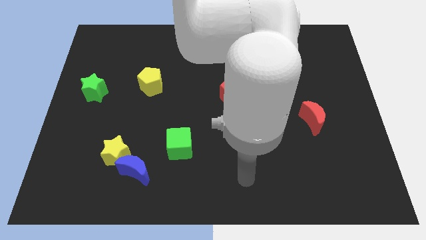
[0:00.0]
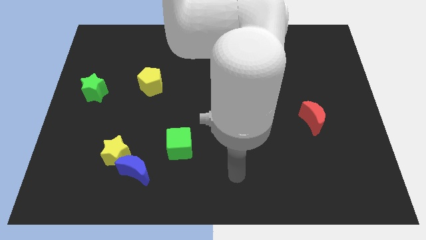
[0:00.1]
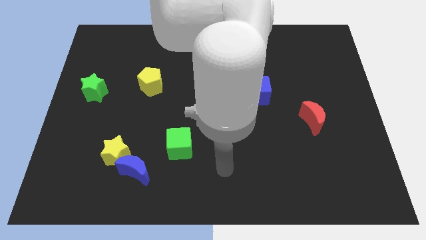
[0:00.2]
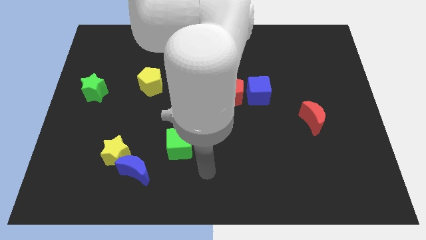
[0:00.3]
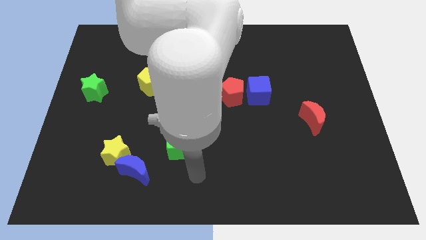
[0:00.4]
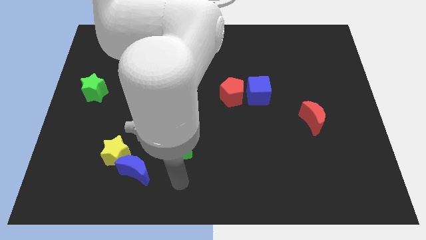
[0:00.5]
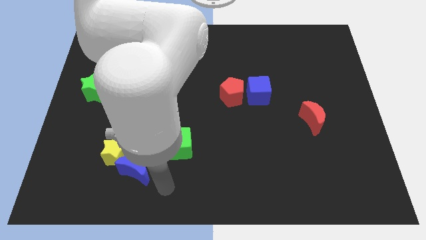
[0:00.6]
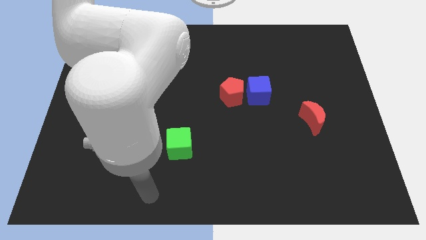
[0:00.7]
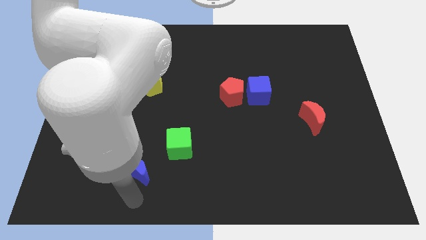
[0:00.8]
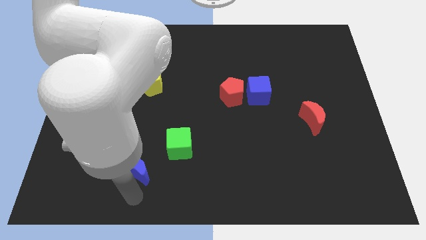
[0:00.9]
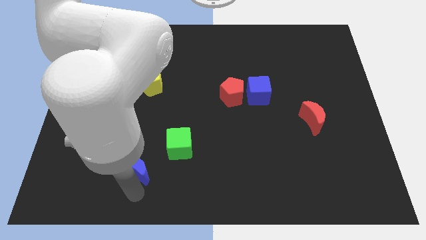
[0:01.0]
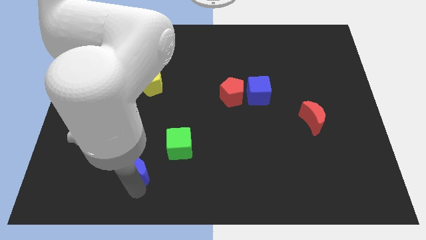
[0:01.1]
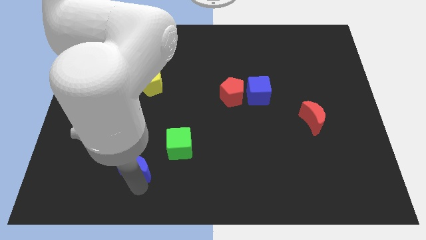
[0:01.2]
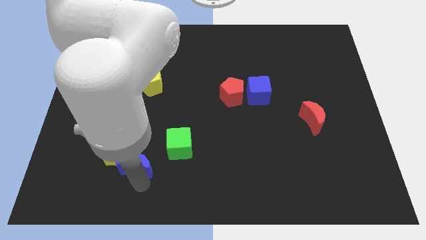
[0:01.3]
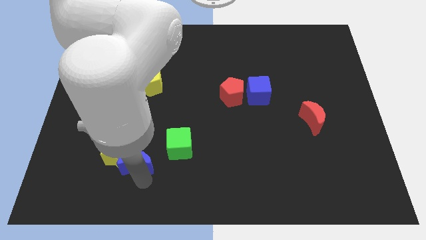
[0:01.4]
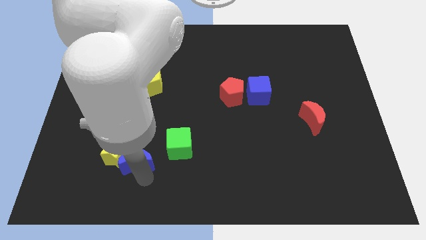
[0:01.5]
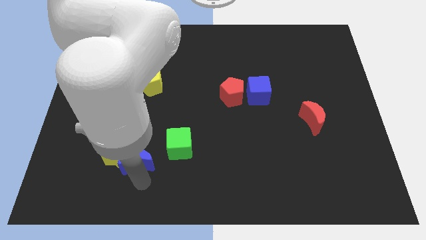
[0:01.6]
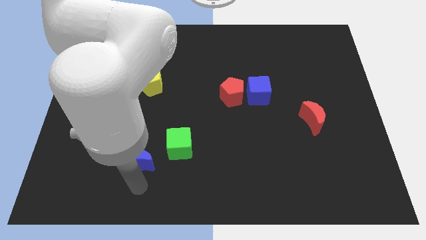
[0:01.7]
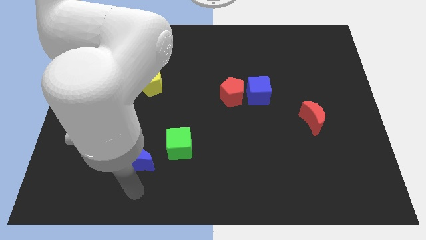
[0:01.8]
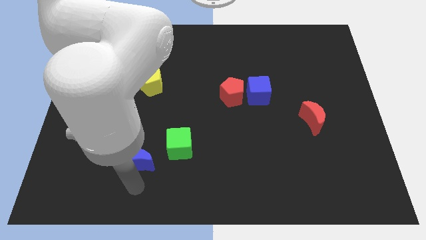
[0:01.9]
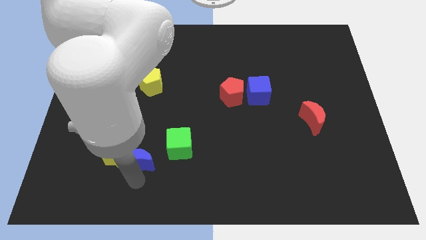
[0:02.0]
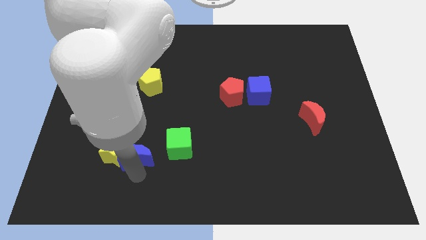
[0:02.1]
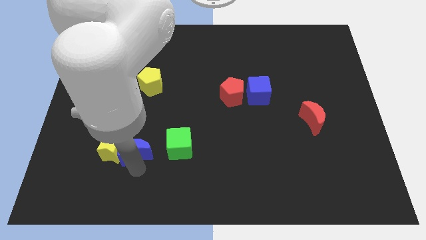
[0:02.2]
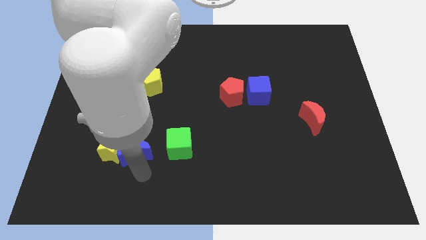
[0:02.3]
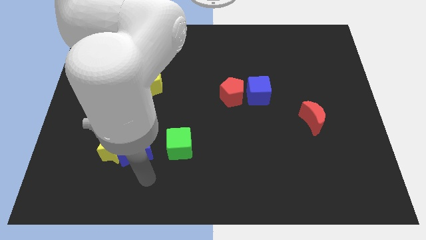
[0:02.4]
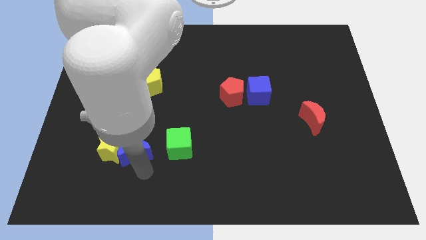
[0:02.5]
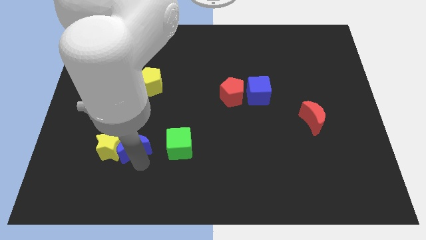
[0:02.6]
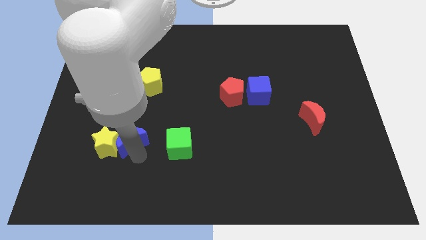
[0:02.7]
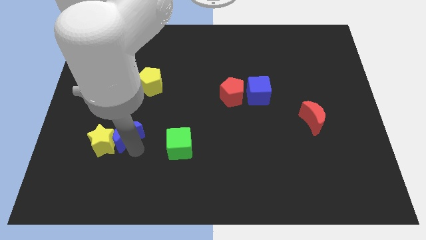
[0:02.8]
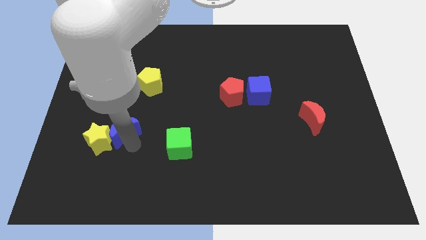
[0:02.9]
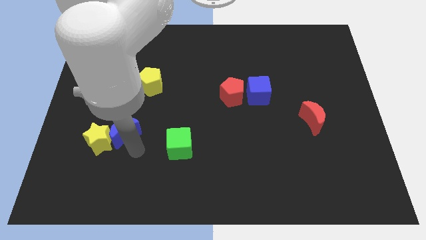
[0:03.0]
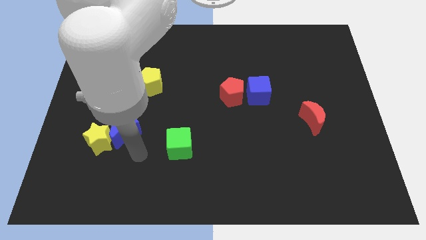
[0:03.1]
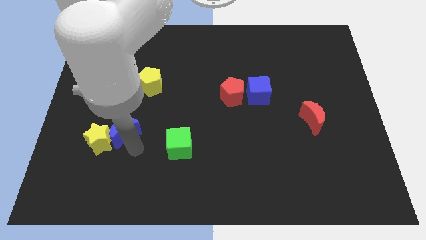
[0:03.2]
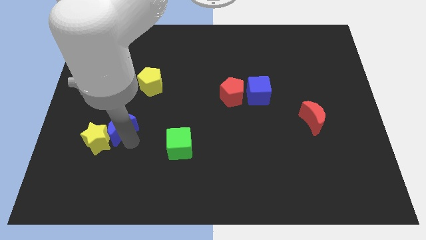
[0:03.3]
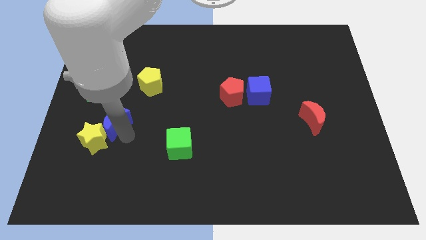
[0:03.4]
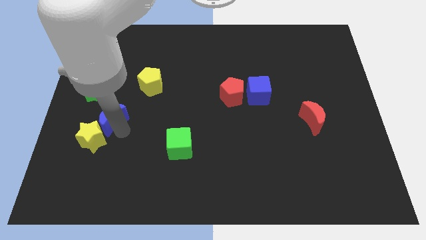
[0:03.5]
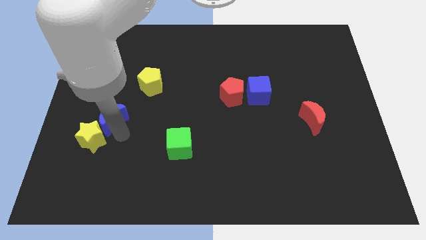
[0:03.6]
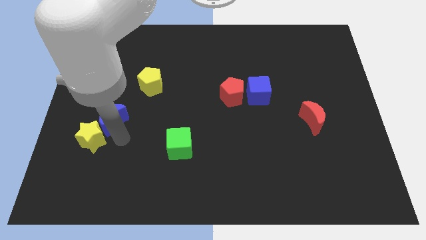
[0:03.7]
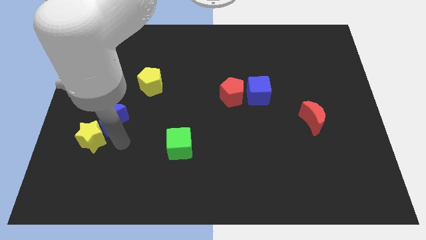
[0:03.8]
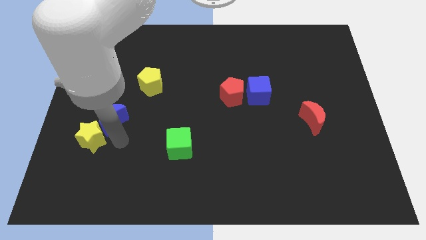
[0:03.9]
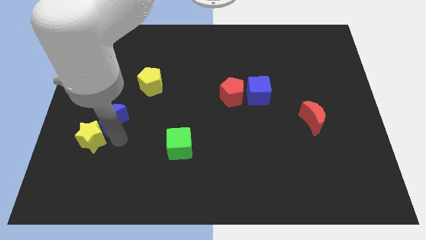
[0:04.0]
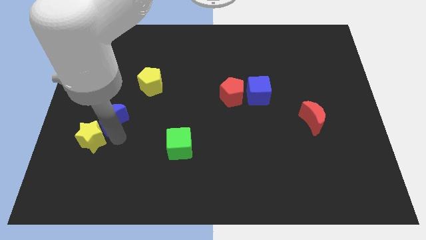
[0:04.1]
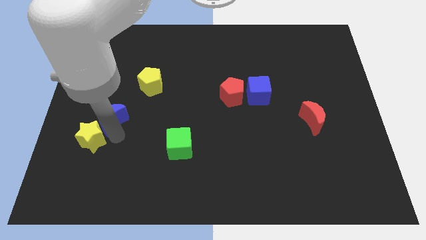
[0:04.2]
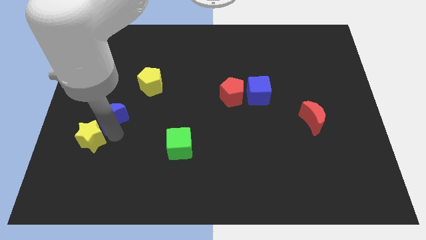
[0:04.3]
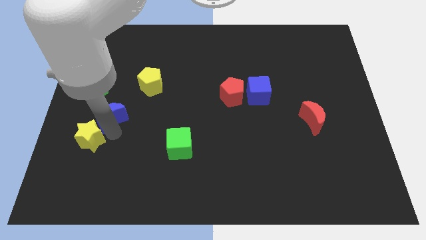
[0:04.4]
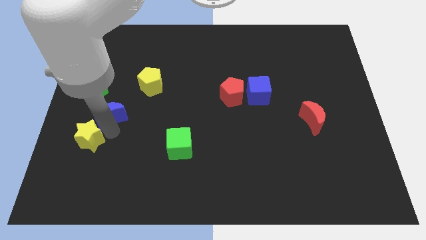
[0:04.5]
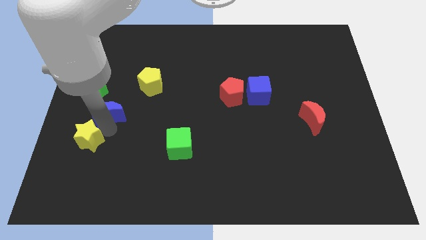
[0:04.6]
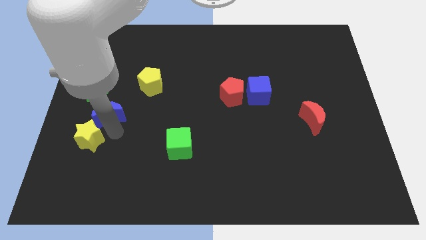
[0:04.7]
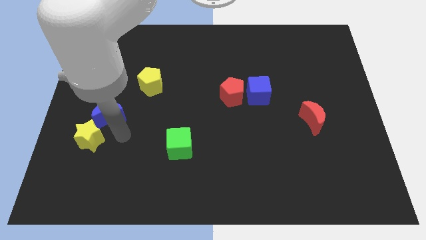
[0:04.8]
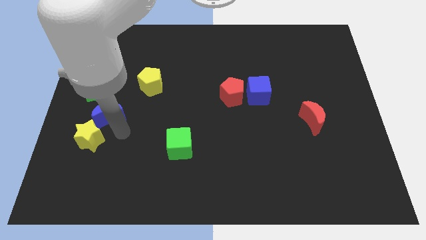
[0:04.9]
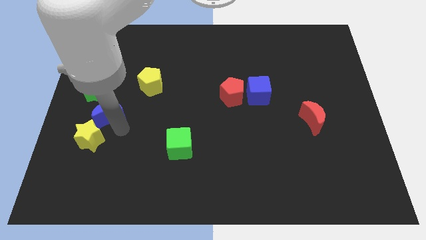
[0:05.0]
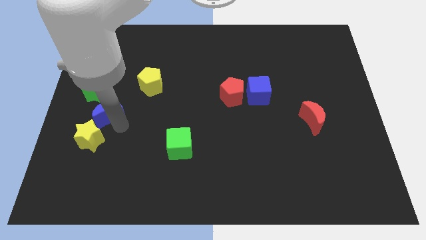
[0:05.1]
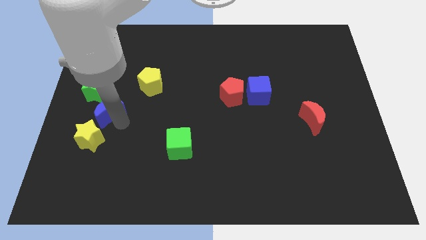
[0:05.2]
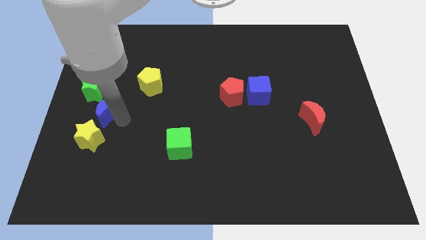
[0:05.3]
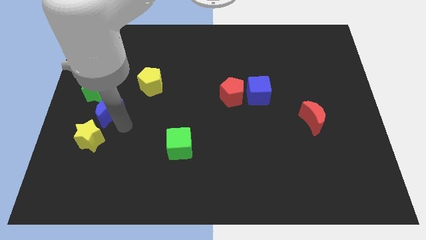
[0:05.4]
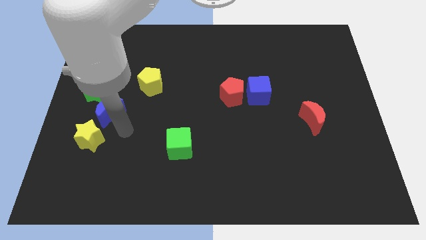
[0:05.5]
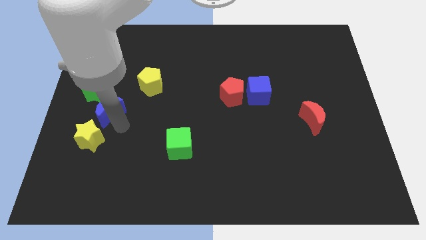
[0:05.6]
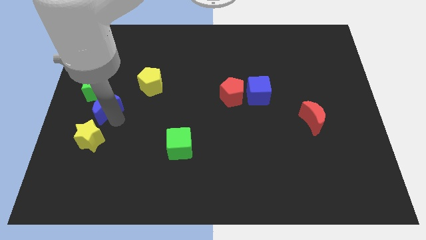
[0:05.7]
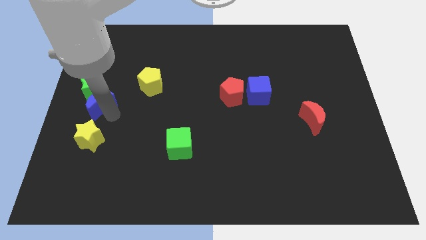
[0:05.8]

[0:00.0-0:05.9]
slide the blue moon close to the green star

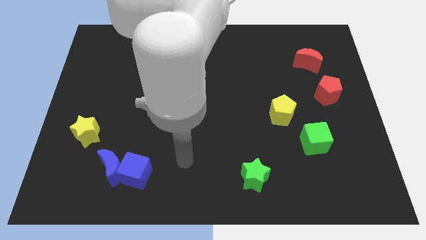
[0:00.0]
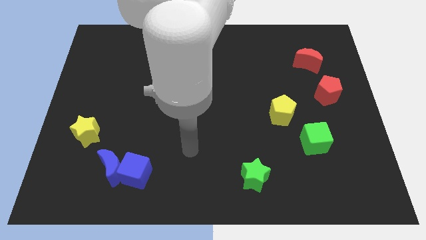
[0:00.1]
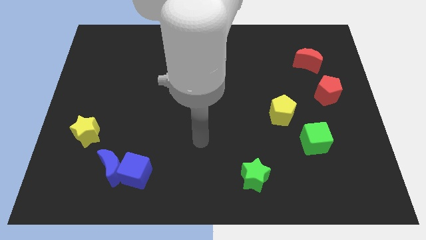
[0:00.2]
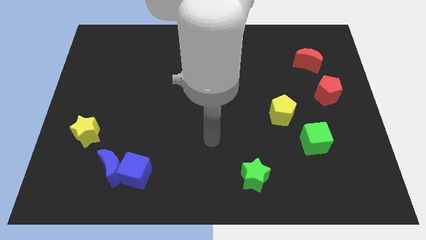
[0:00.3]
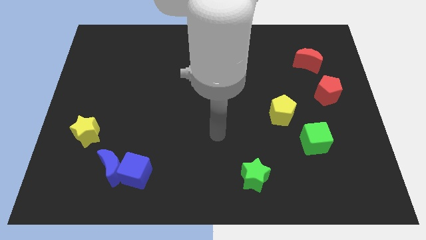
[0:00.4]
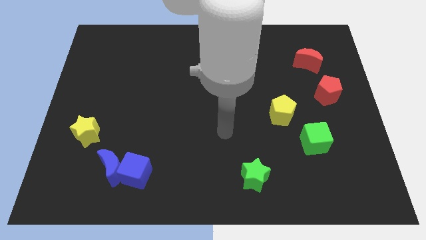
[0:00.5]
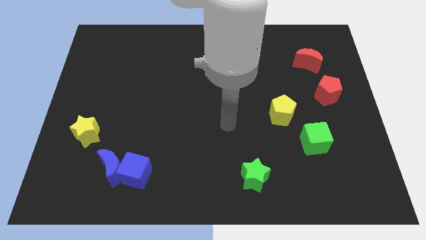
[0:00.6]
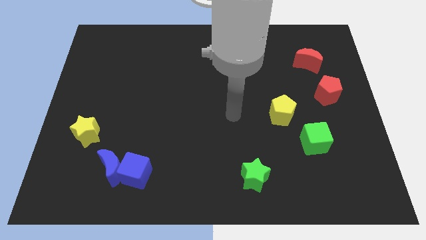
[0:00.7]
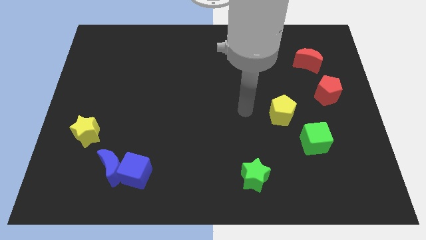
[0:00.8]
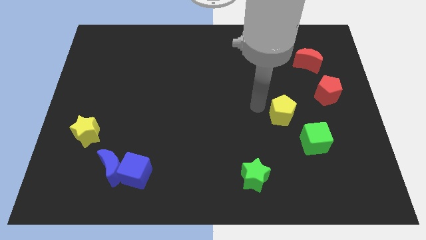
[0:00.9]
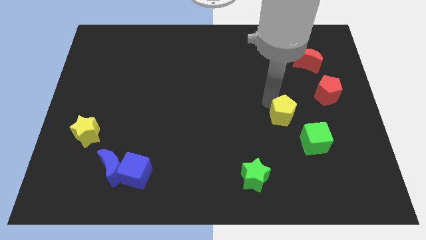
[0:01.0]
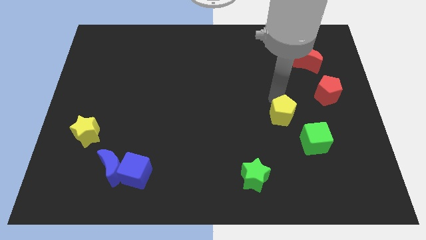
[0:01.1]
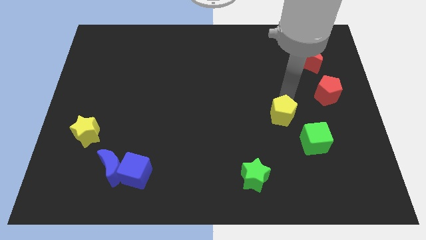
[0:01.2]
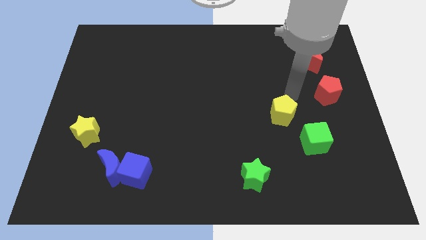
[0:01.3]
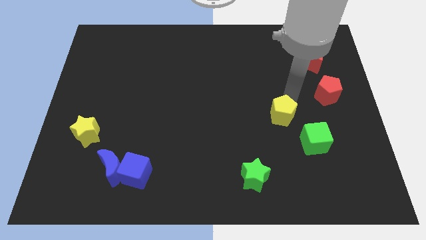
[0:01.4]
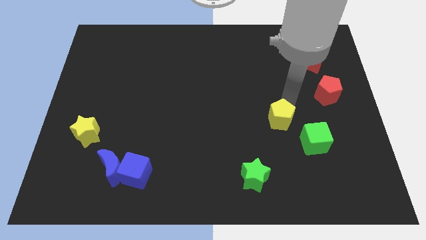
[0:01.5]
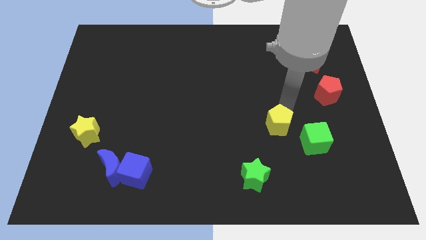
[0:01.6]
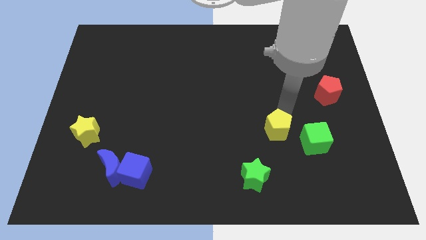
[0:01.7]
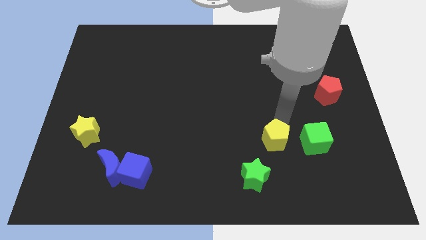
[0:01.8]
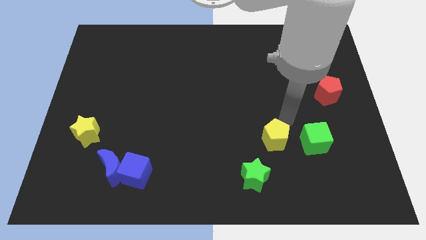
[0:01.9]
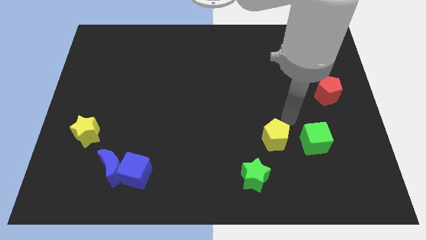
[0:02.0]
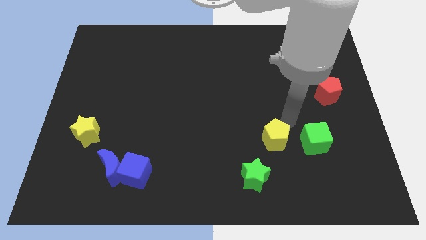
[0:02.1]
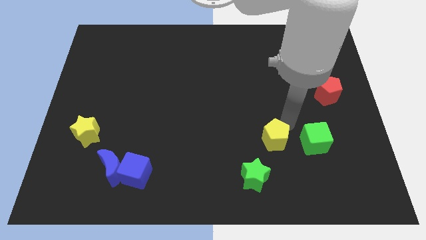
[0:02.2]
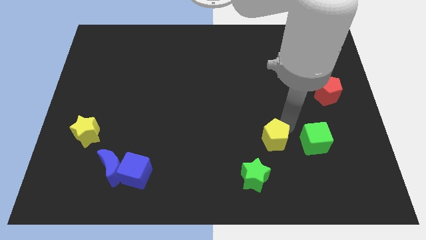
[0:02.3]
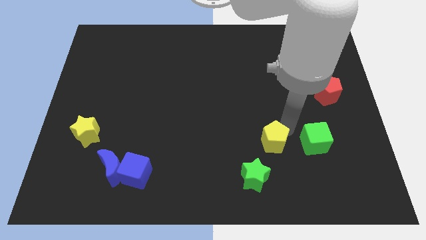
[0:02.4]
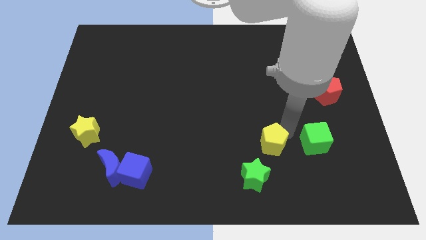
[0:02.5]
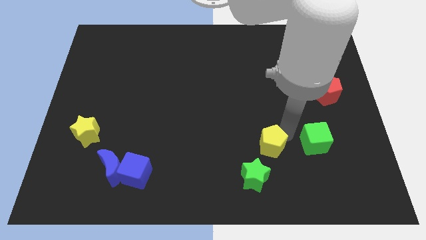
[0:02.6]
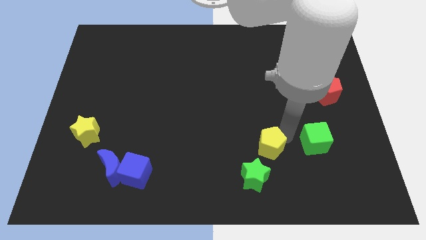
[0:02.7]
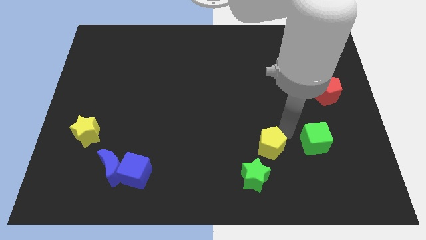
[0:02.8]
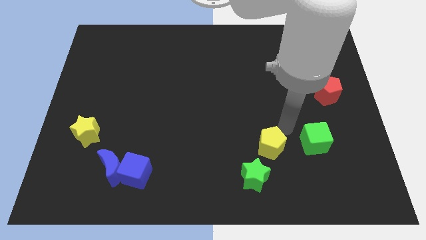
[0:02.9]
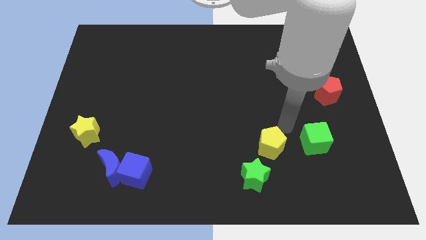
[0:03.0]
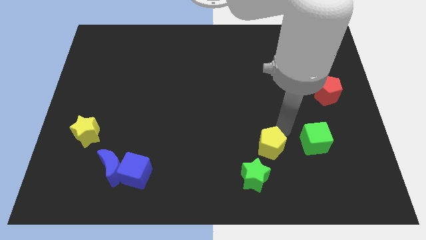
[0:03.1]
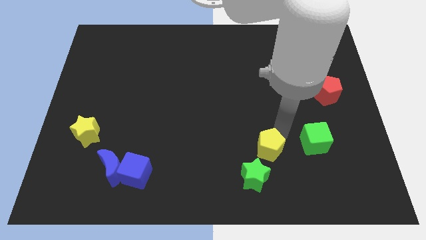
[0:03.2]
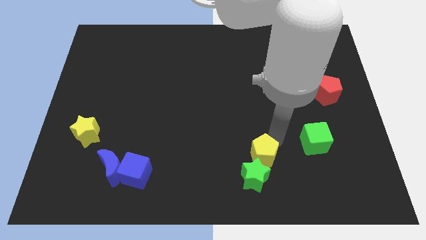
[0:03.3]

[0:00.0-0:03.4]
push the yellow pentagon close to the green star
